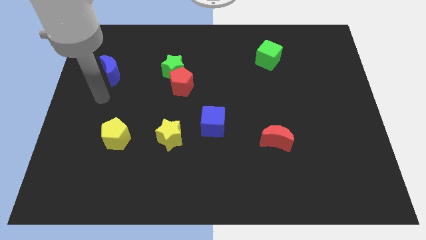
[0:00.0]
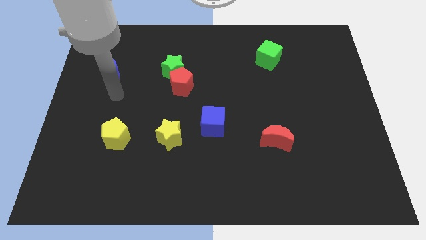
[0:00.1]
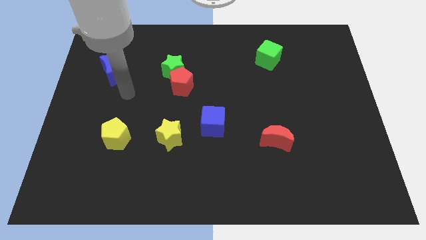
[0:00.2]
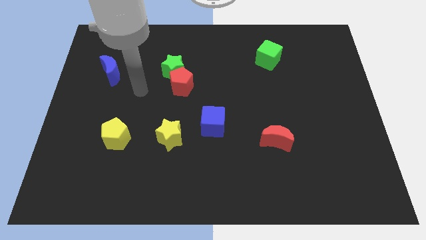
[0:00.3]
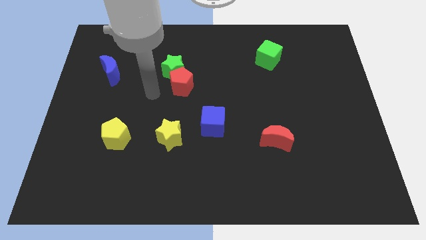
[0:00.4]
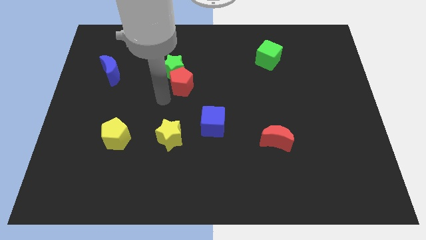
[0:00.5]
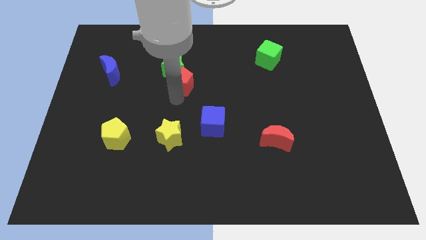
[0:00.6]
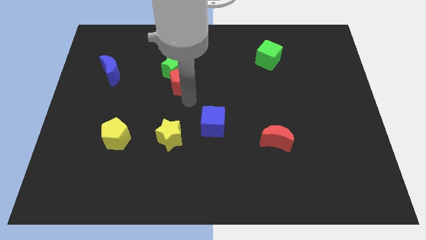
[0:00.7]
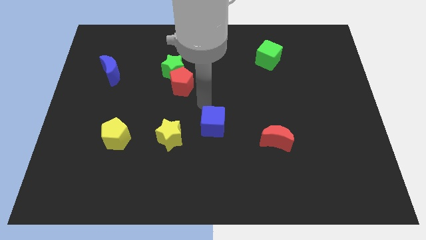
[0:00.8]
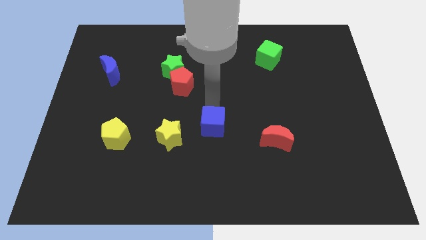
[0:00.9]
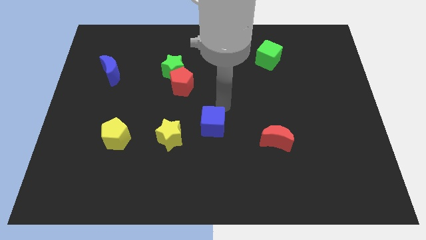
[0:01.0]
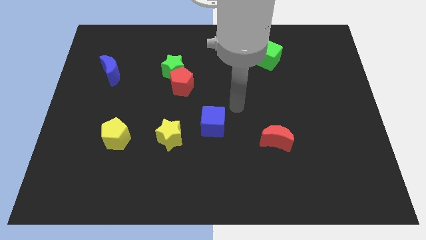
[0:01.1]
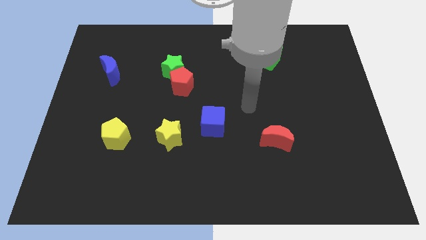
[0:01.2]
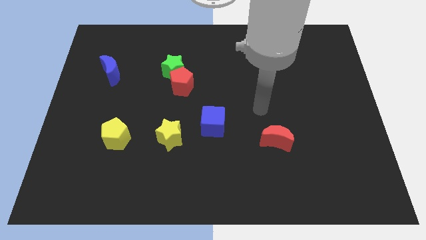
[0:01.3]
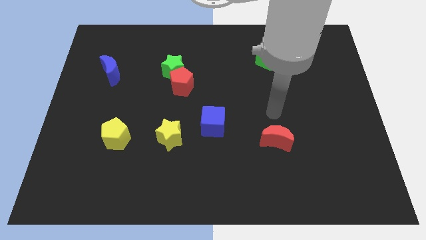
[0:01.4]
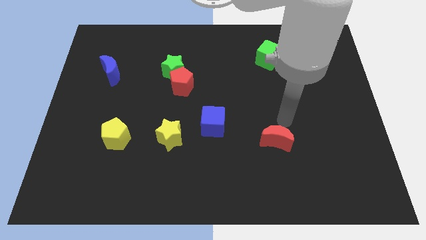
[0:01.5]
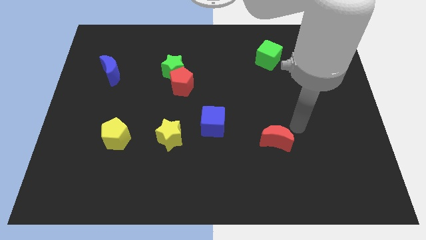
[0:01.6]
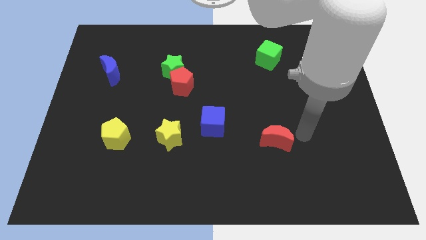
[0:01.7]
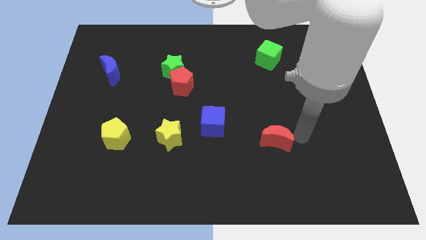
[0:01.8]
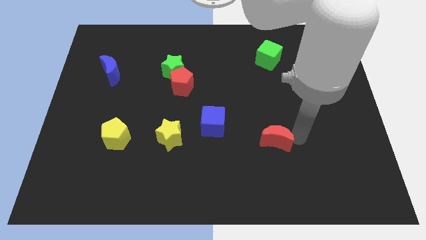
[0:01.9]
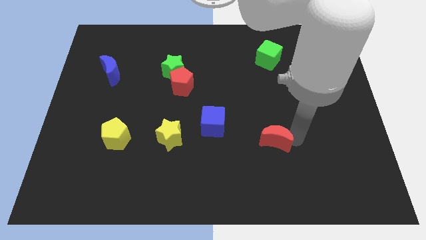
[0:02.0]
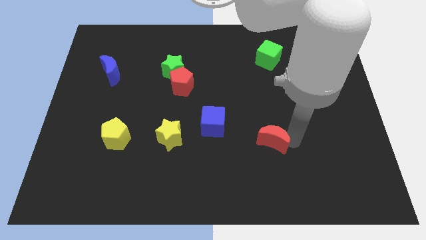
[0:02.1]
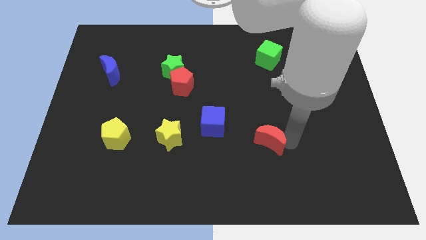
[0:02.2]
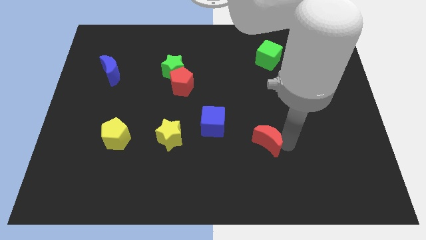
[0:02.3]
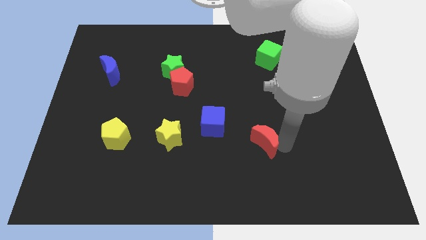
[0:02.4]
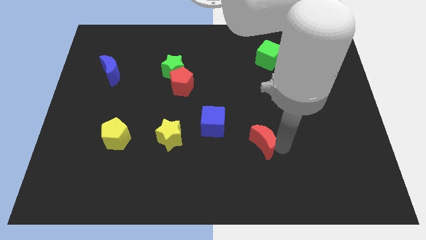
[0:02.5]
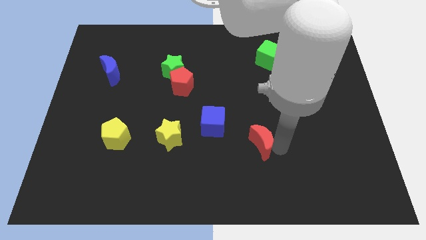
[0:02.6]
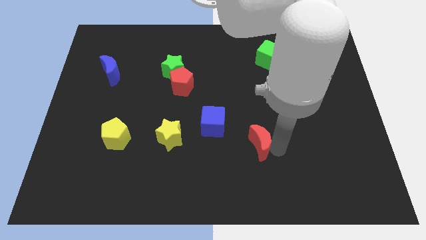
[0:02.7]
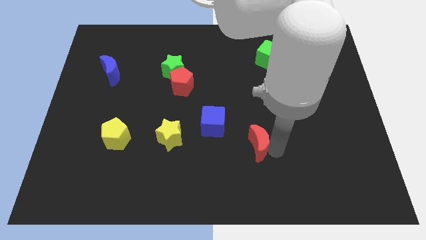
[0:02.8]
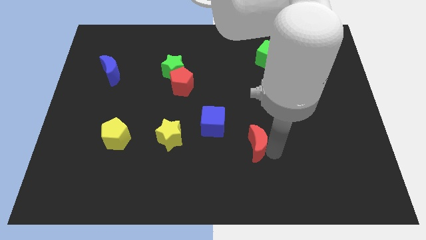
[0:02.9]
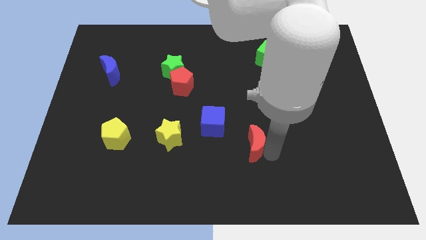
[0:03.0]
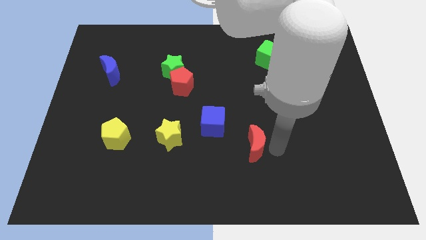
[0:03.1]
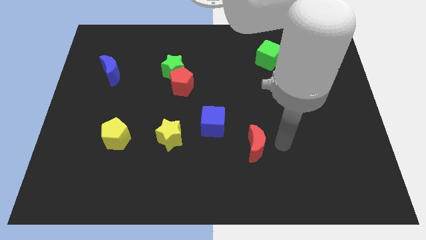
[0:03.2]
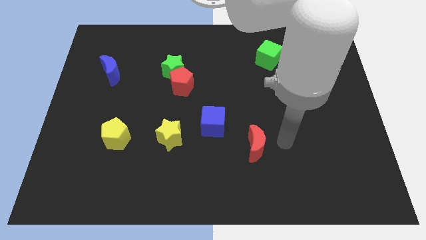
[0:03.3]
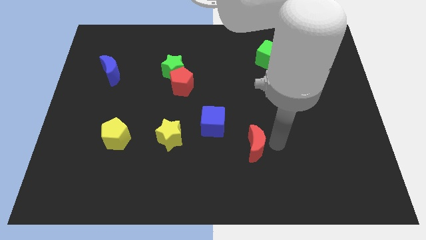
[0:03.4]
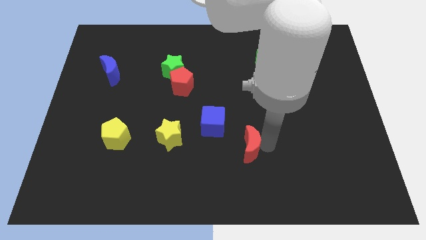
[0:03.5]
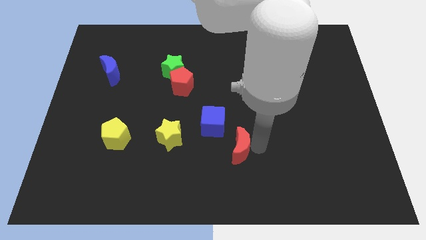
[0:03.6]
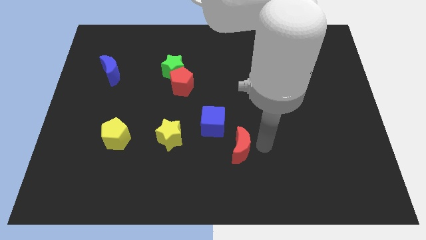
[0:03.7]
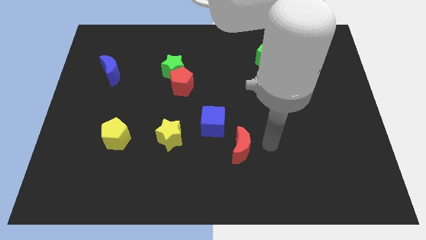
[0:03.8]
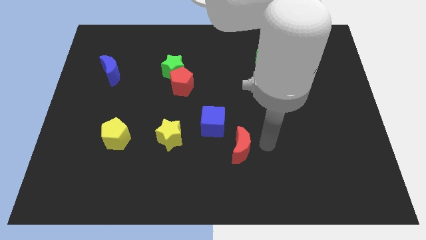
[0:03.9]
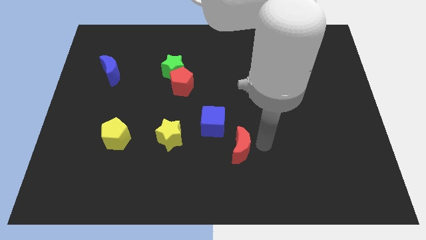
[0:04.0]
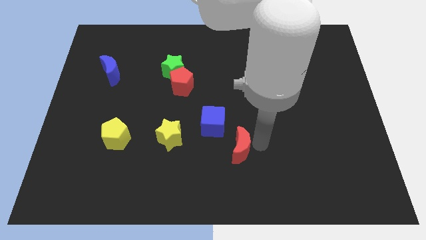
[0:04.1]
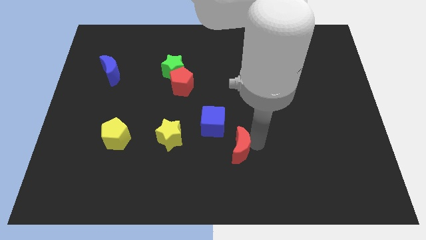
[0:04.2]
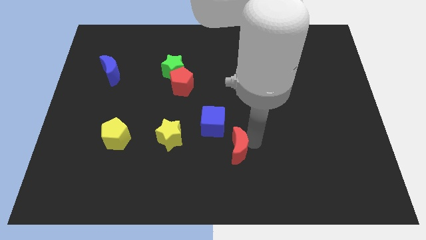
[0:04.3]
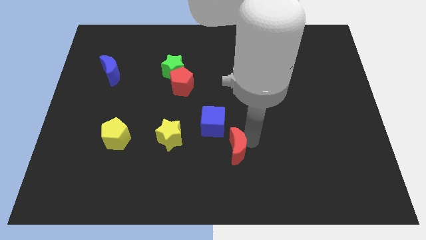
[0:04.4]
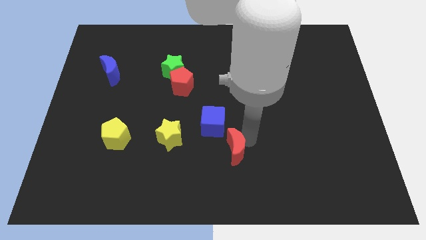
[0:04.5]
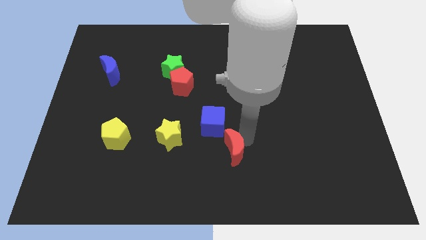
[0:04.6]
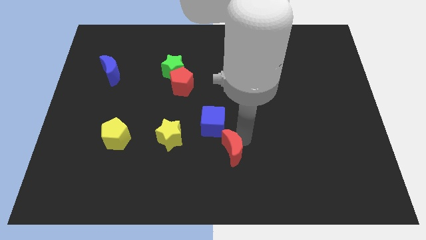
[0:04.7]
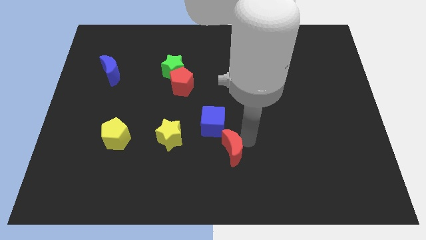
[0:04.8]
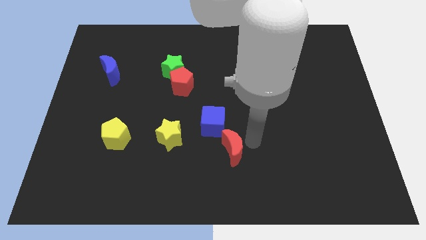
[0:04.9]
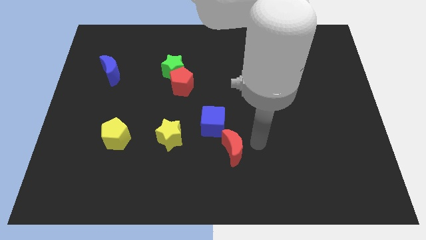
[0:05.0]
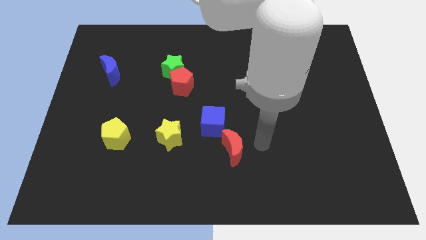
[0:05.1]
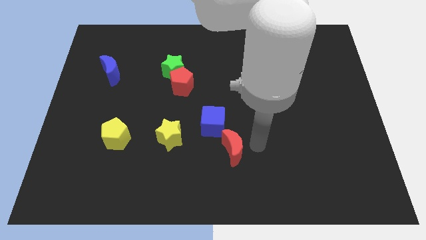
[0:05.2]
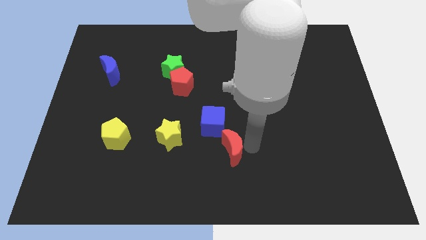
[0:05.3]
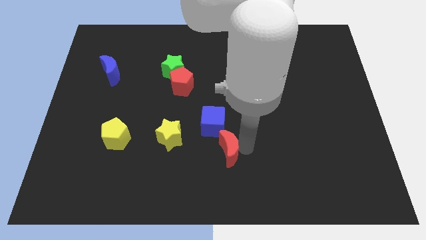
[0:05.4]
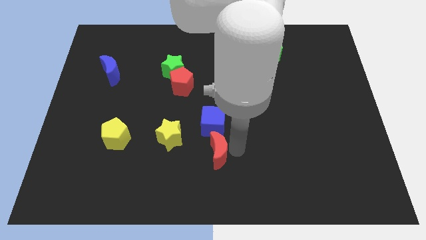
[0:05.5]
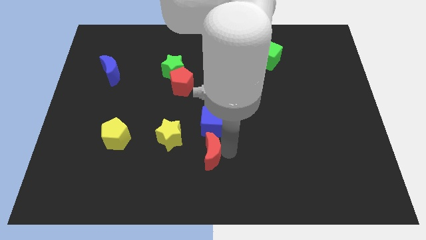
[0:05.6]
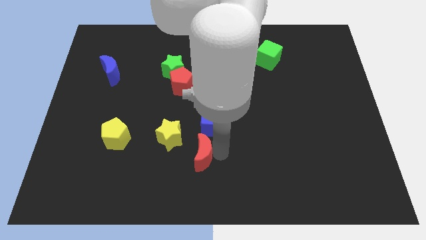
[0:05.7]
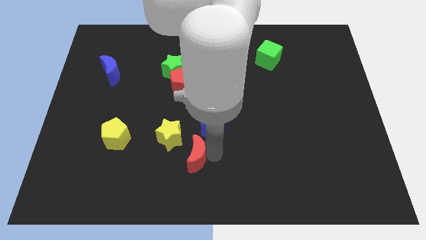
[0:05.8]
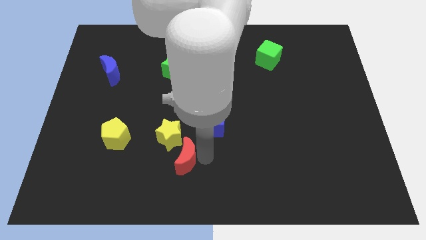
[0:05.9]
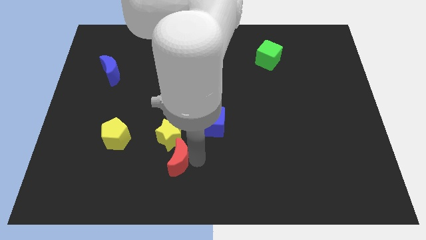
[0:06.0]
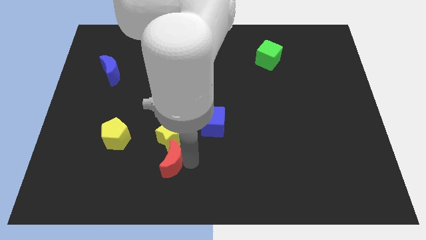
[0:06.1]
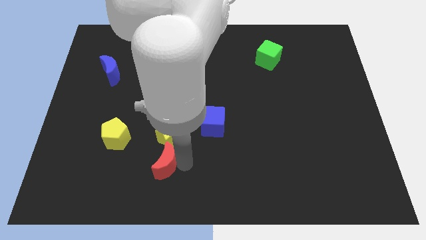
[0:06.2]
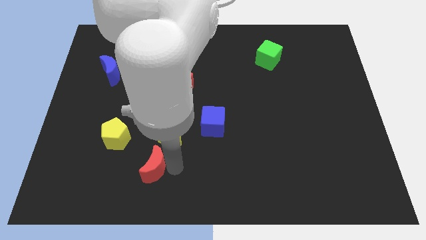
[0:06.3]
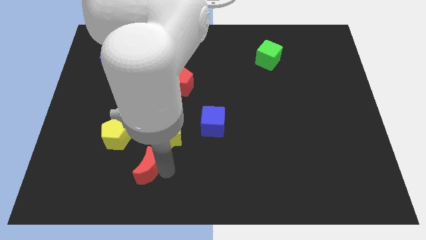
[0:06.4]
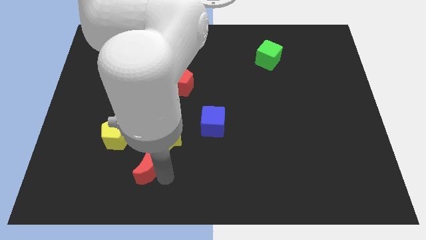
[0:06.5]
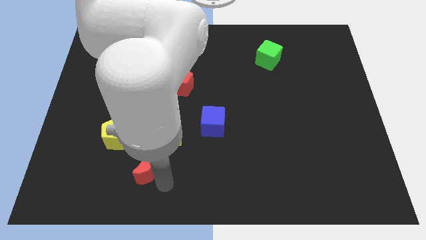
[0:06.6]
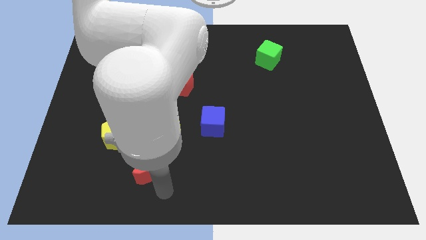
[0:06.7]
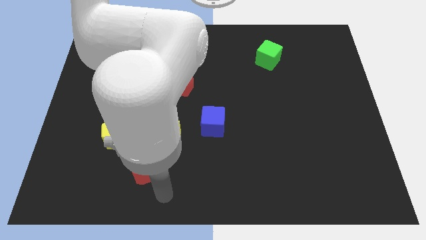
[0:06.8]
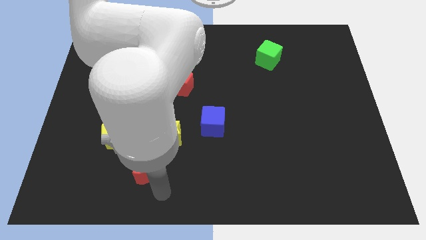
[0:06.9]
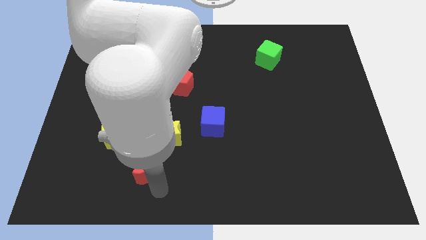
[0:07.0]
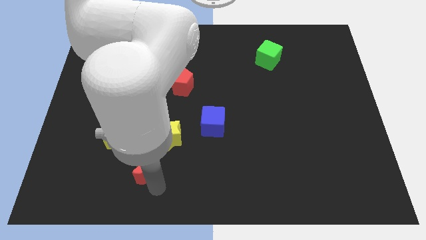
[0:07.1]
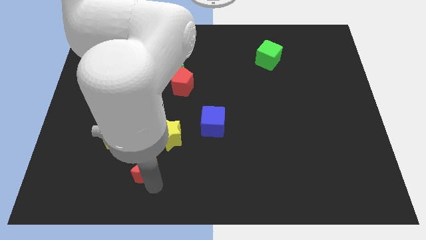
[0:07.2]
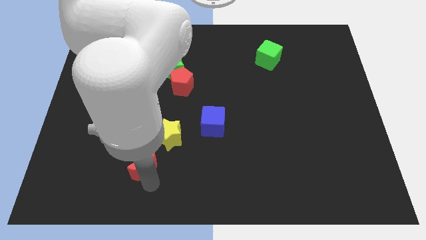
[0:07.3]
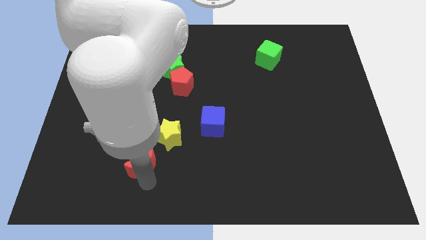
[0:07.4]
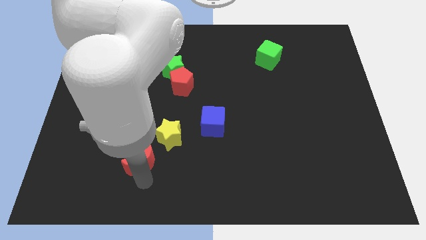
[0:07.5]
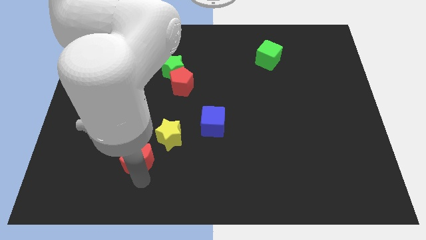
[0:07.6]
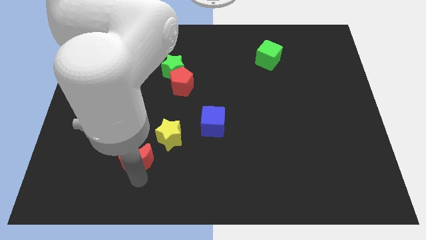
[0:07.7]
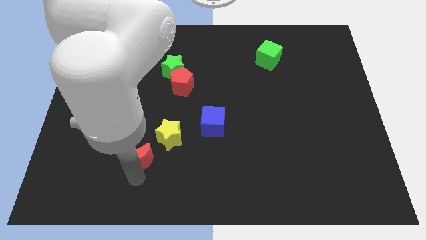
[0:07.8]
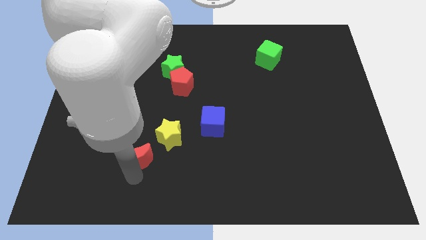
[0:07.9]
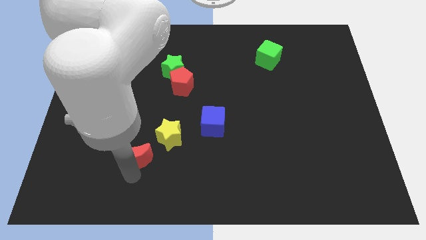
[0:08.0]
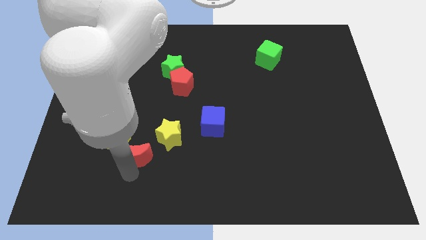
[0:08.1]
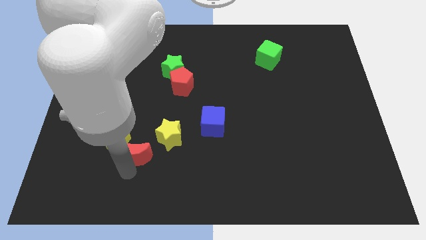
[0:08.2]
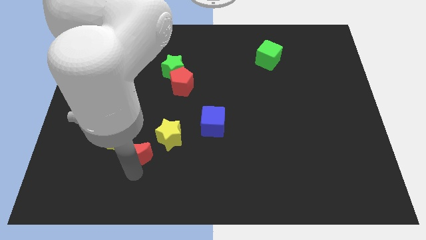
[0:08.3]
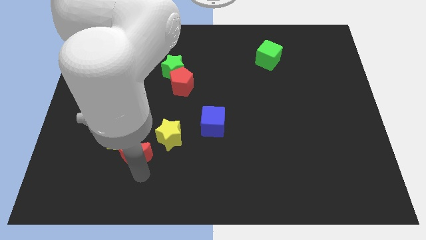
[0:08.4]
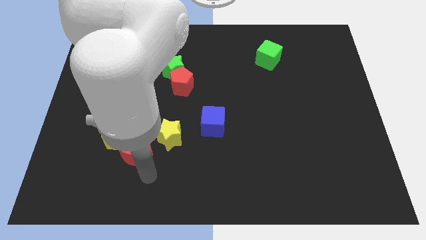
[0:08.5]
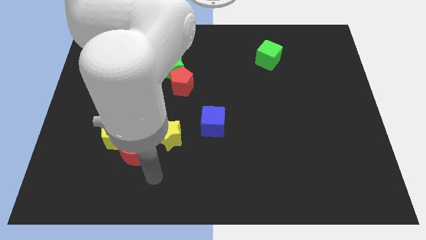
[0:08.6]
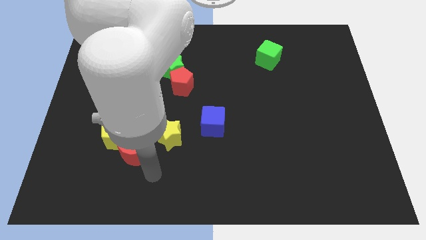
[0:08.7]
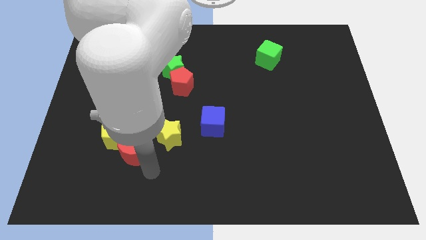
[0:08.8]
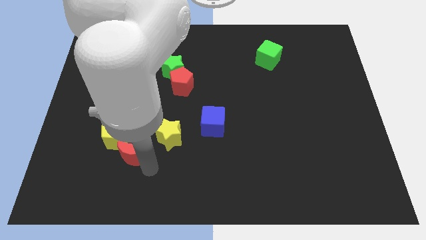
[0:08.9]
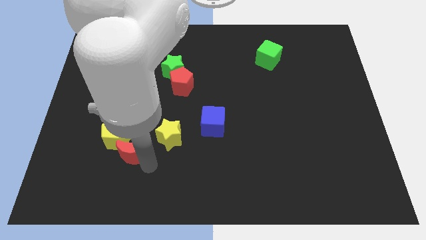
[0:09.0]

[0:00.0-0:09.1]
move the red moon next to the yellow pentagon
